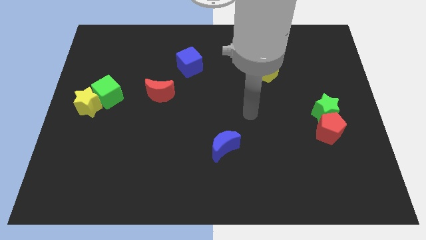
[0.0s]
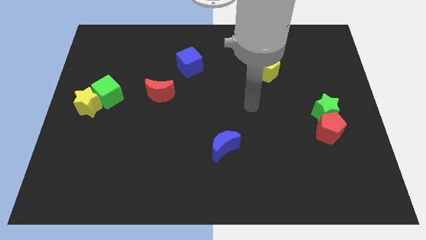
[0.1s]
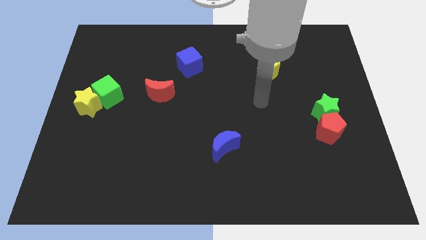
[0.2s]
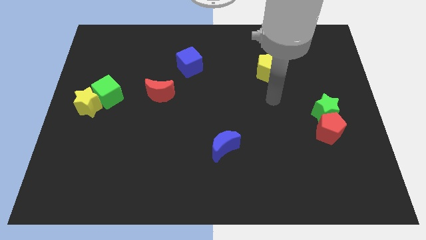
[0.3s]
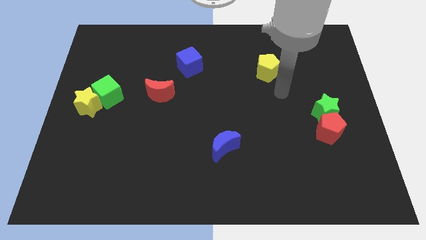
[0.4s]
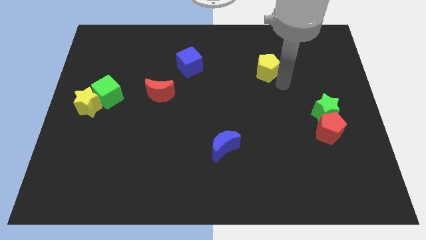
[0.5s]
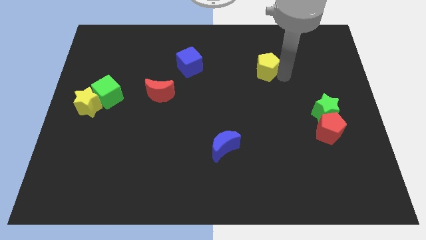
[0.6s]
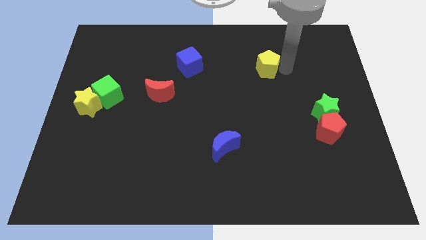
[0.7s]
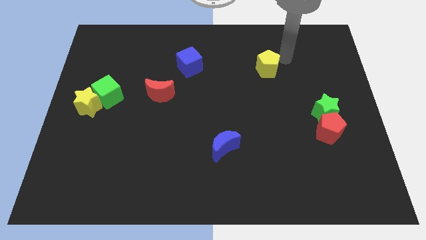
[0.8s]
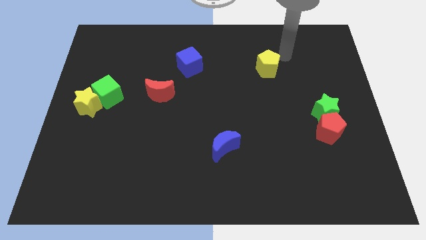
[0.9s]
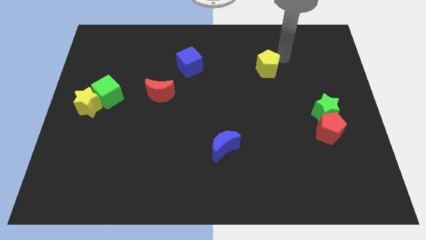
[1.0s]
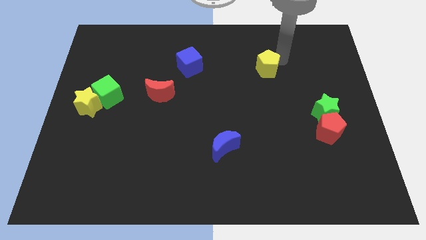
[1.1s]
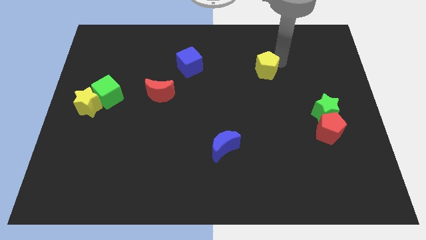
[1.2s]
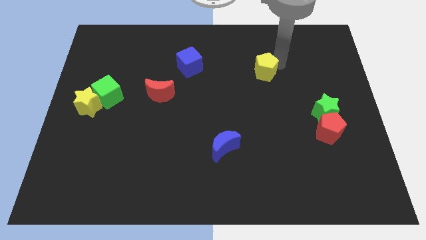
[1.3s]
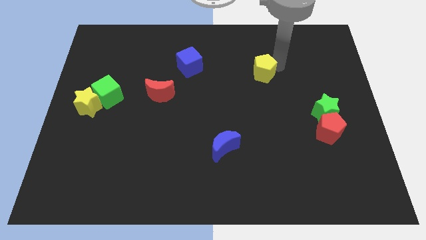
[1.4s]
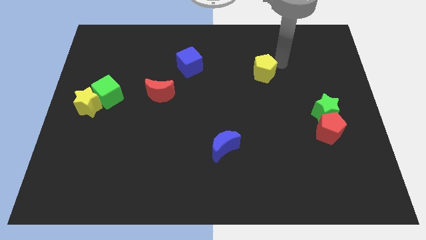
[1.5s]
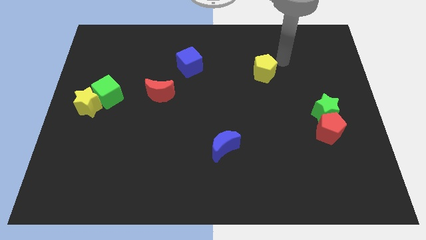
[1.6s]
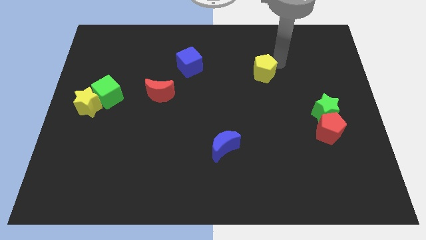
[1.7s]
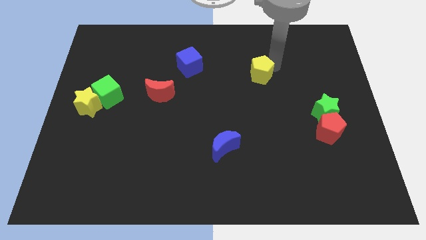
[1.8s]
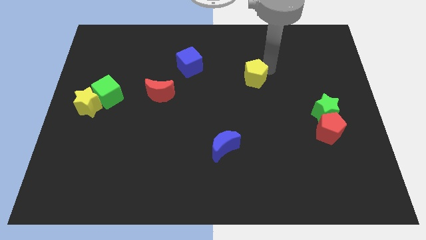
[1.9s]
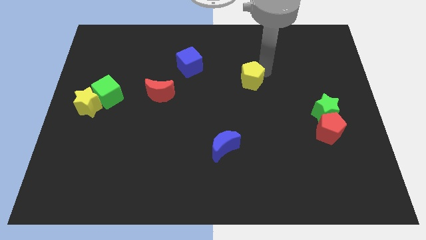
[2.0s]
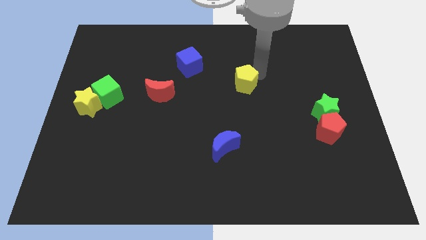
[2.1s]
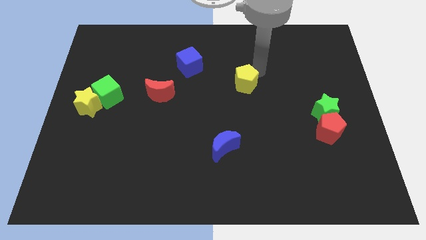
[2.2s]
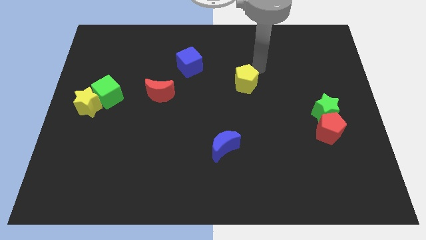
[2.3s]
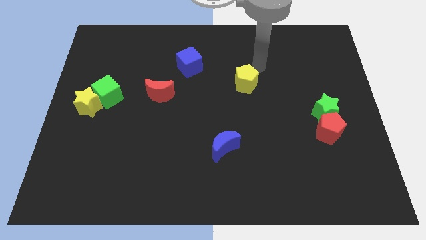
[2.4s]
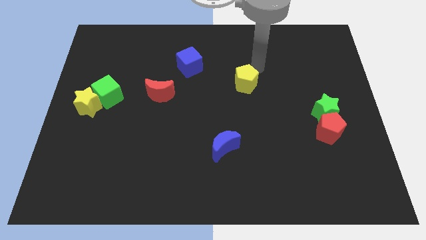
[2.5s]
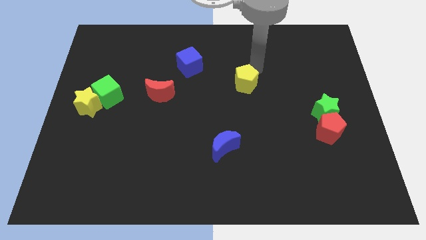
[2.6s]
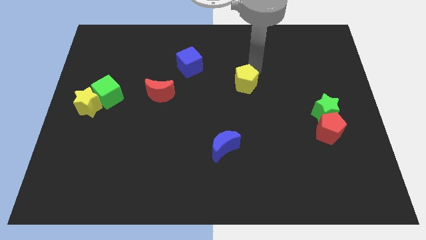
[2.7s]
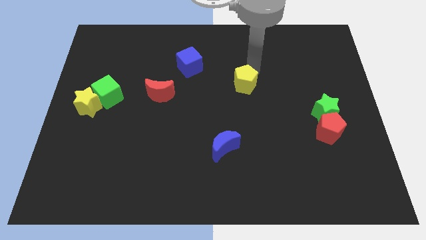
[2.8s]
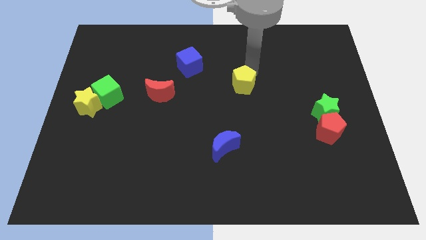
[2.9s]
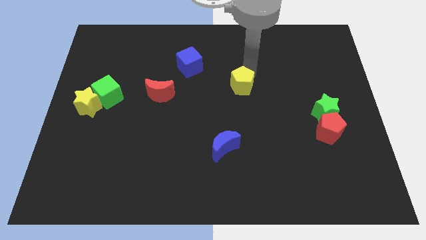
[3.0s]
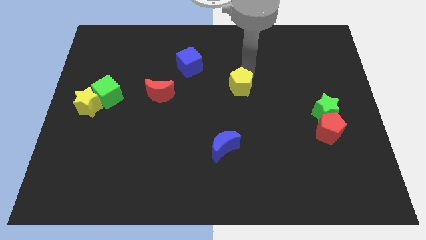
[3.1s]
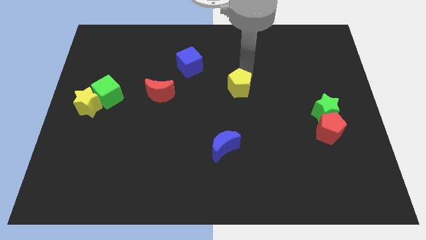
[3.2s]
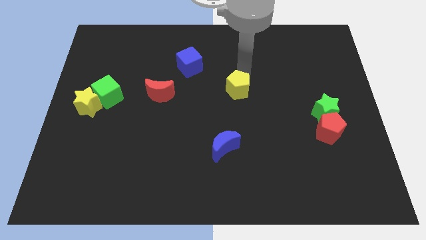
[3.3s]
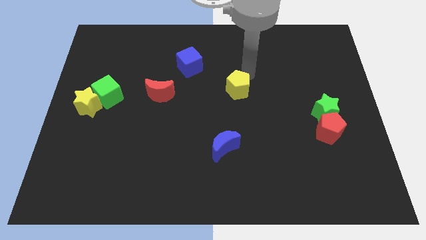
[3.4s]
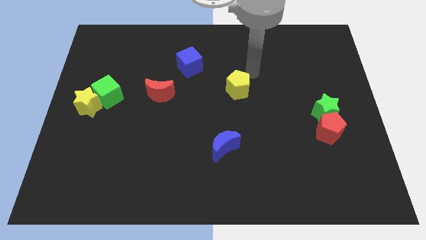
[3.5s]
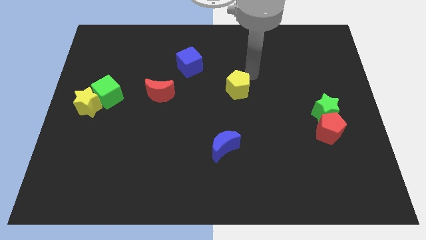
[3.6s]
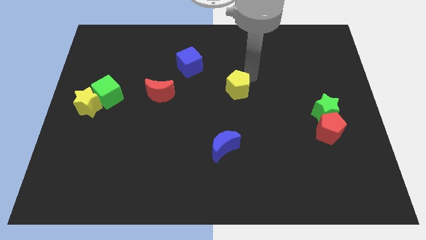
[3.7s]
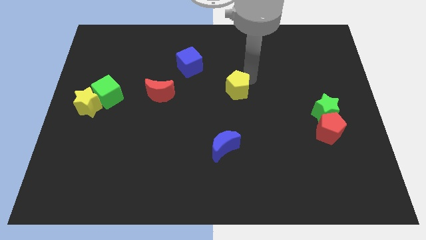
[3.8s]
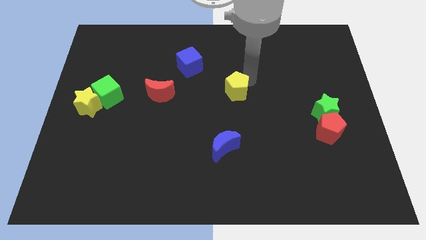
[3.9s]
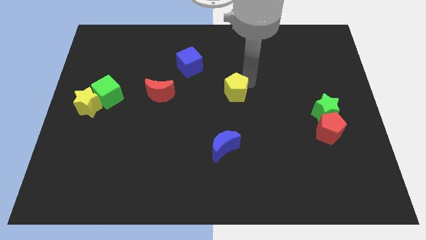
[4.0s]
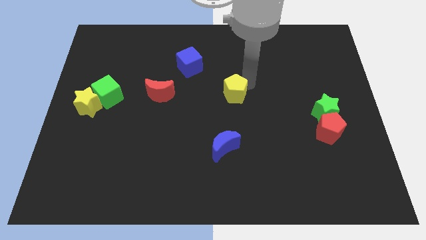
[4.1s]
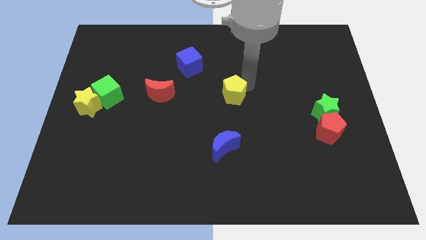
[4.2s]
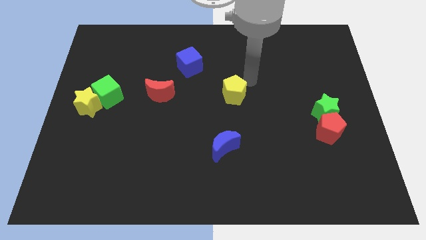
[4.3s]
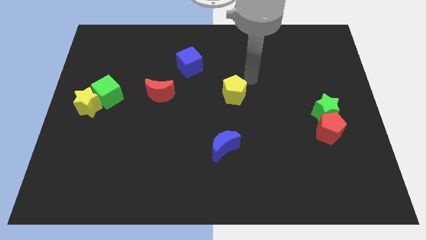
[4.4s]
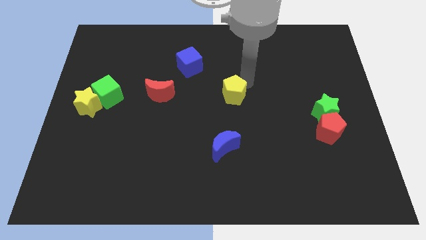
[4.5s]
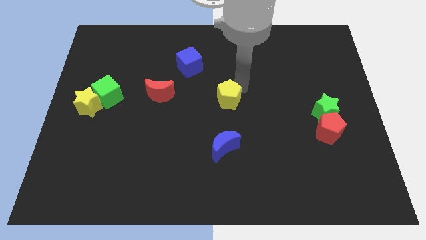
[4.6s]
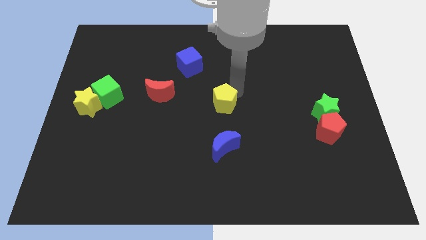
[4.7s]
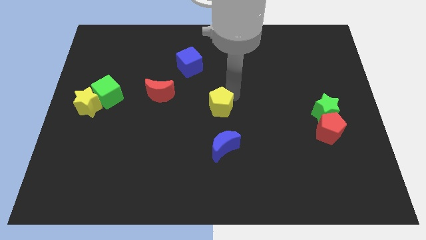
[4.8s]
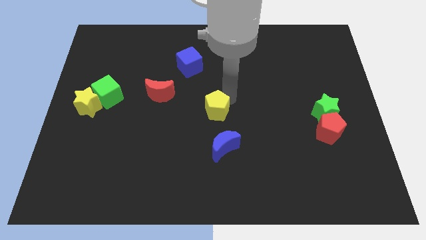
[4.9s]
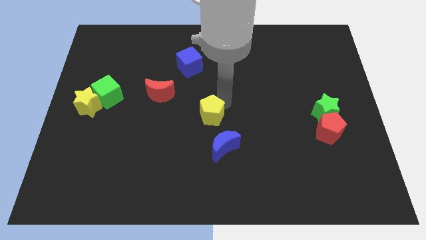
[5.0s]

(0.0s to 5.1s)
slide the yellow pentagon diagonally up and to the left of the blue moon

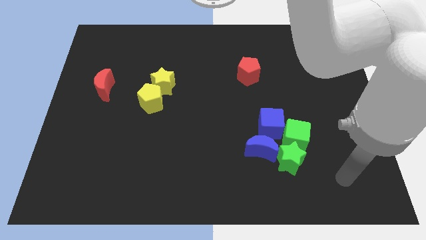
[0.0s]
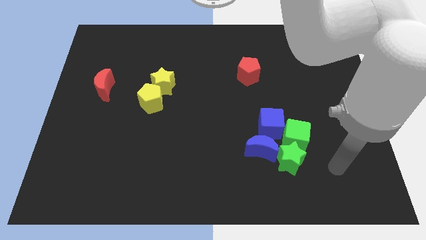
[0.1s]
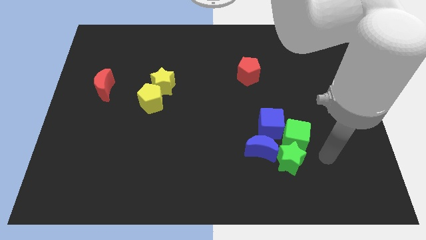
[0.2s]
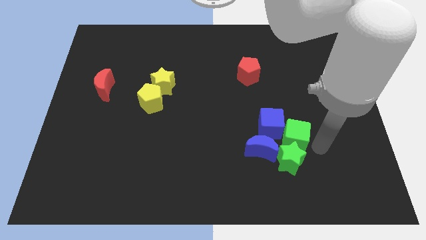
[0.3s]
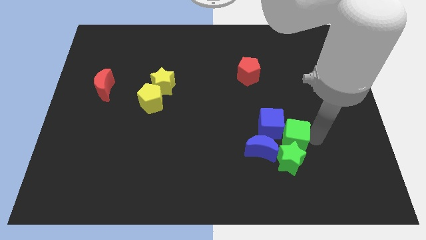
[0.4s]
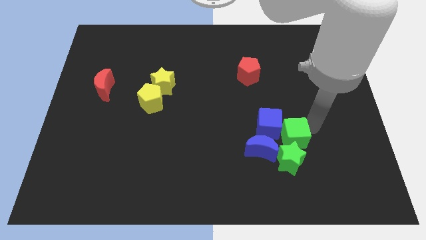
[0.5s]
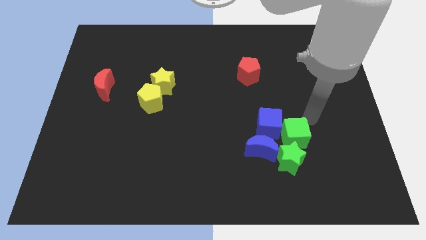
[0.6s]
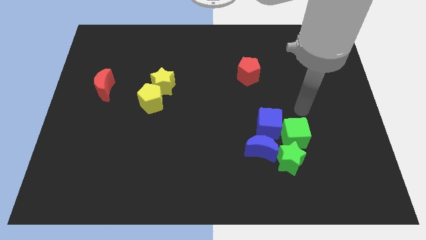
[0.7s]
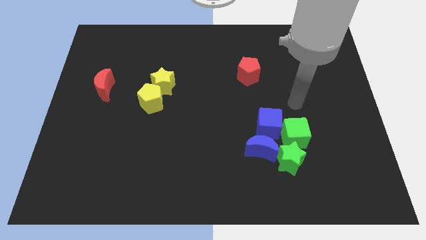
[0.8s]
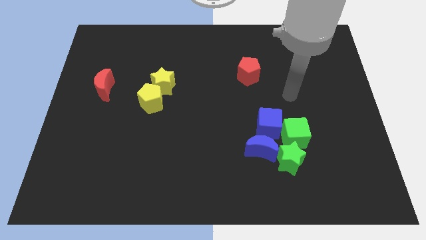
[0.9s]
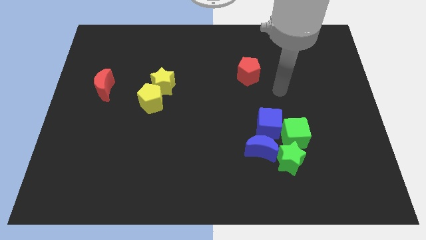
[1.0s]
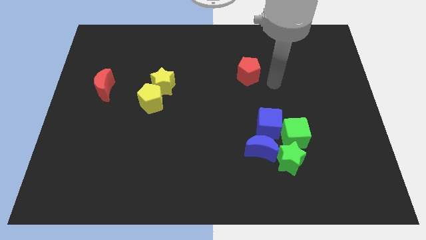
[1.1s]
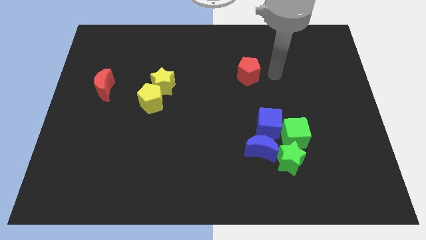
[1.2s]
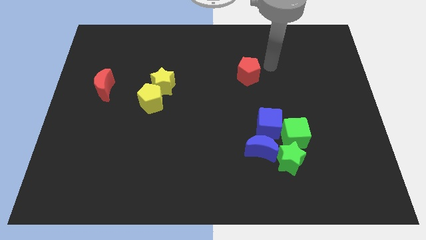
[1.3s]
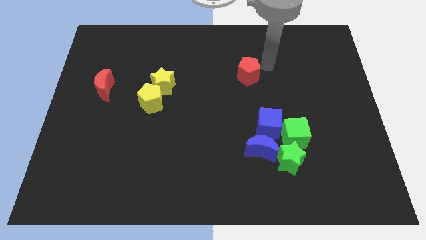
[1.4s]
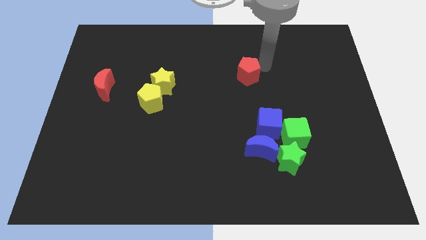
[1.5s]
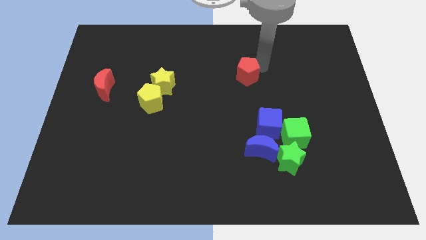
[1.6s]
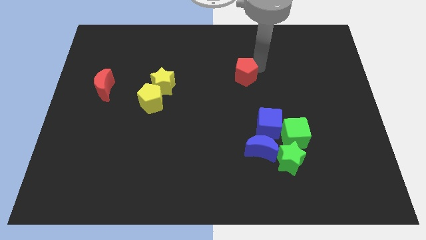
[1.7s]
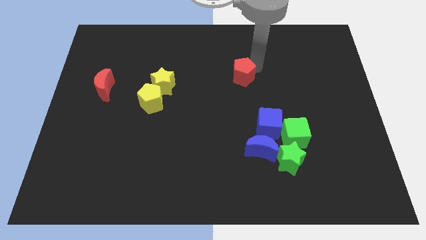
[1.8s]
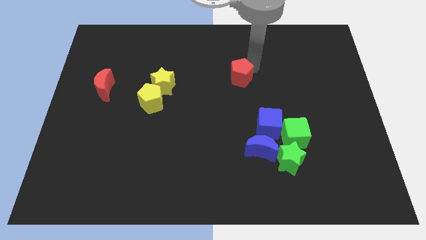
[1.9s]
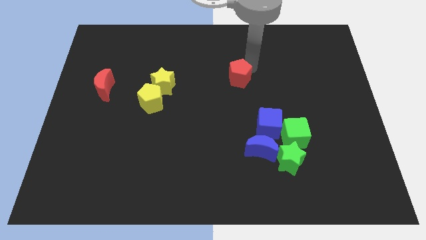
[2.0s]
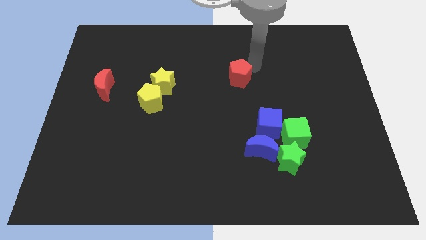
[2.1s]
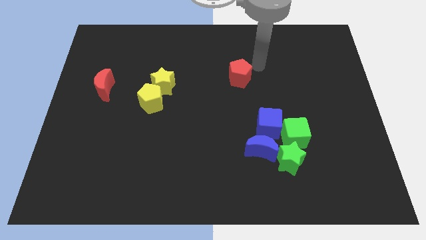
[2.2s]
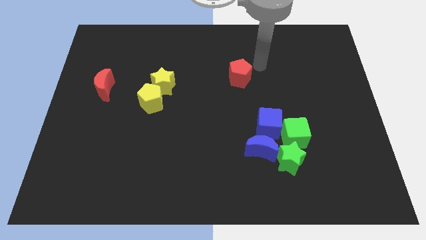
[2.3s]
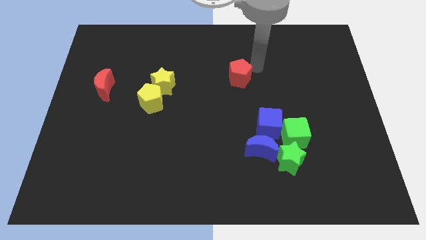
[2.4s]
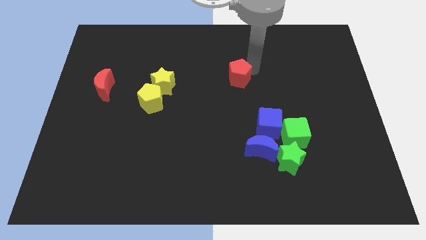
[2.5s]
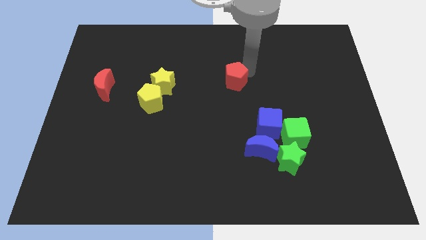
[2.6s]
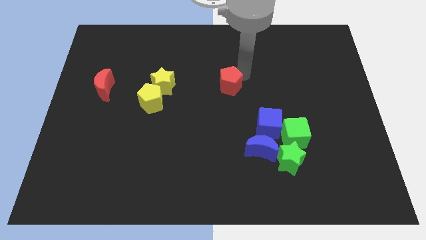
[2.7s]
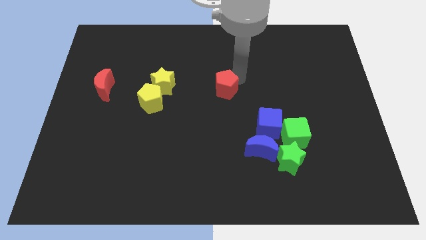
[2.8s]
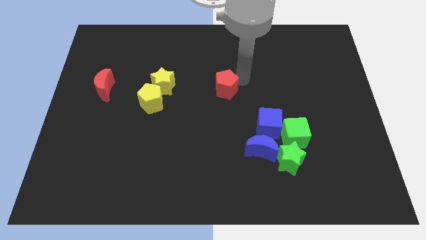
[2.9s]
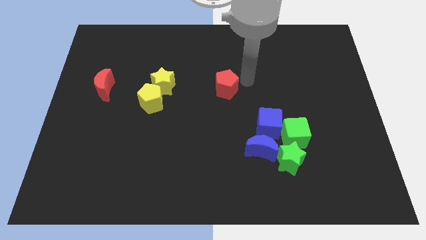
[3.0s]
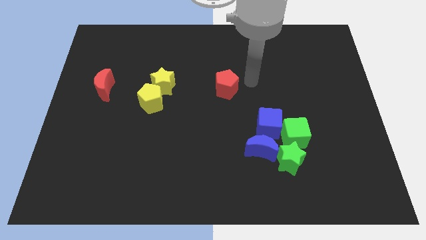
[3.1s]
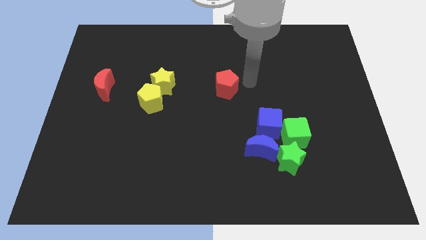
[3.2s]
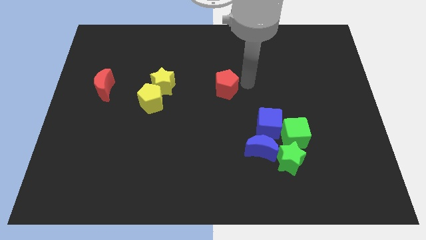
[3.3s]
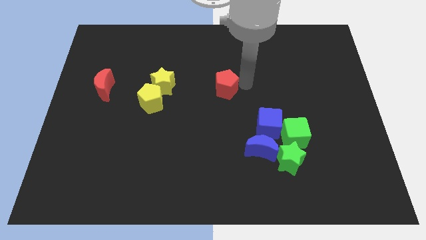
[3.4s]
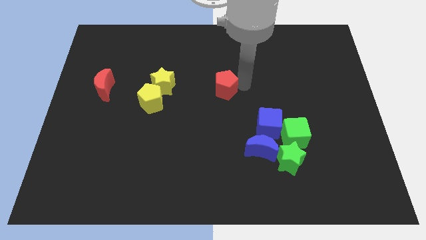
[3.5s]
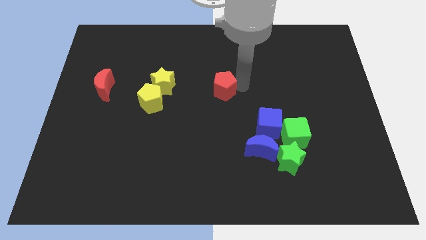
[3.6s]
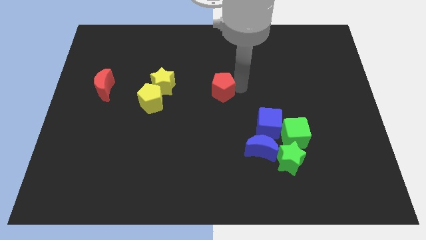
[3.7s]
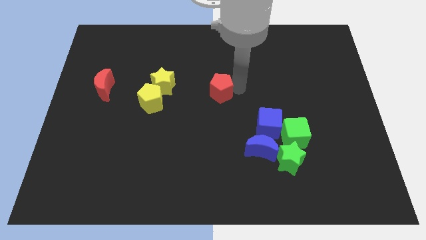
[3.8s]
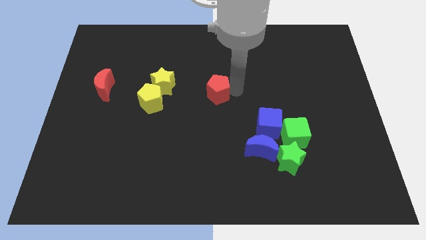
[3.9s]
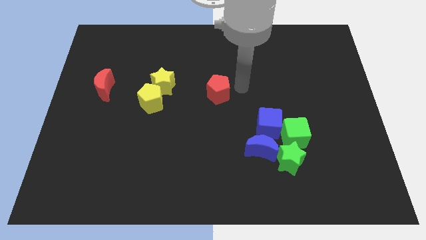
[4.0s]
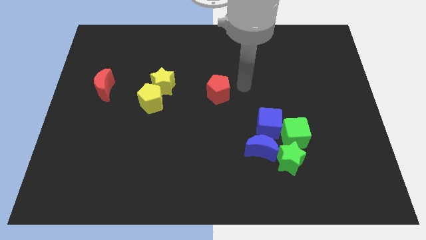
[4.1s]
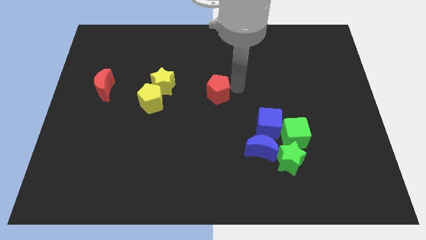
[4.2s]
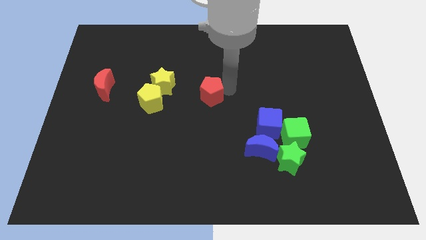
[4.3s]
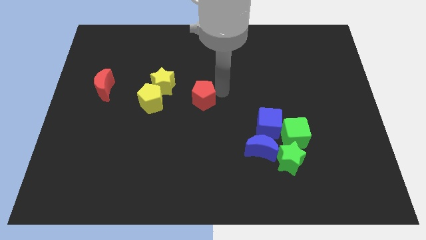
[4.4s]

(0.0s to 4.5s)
put the red pentagon diagonally down and to the right of the yellow star
